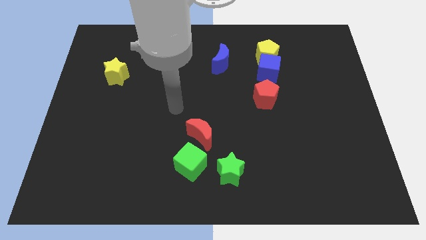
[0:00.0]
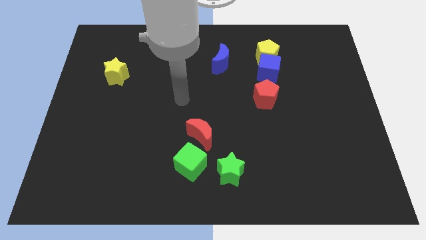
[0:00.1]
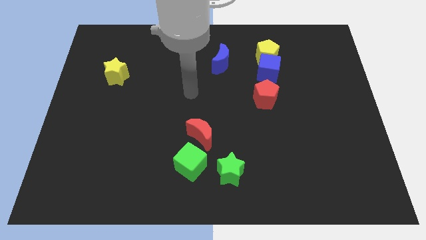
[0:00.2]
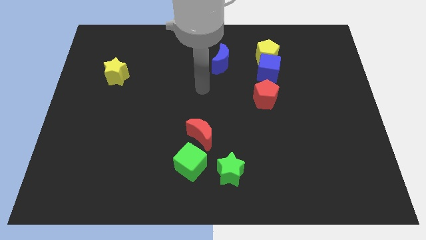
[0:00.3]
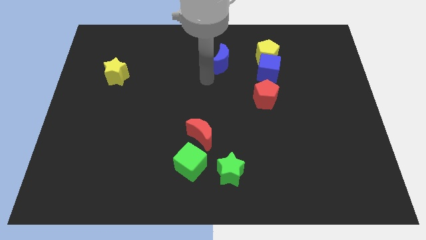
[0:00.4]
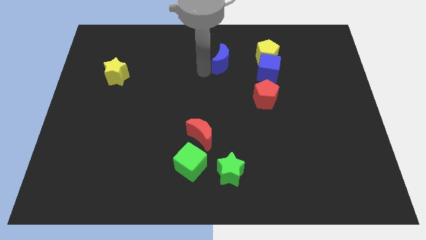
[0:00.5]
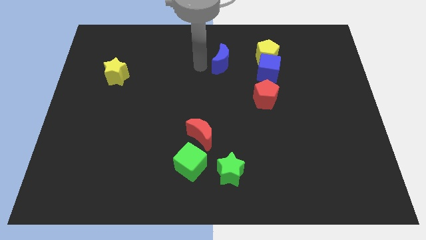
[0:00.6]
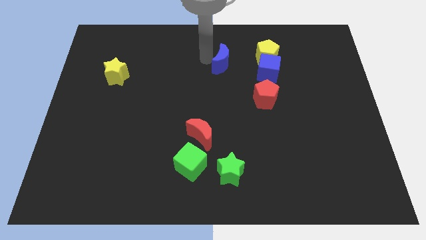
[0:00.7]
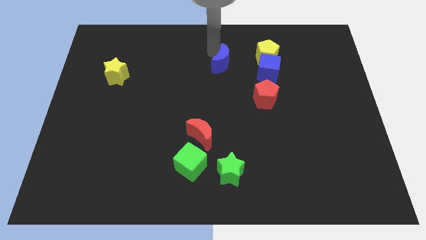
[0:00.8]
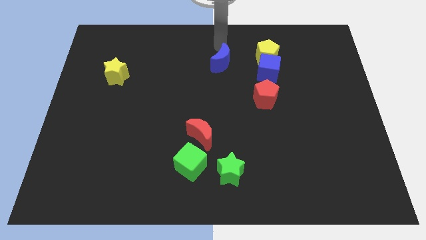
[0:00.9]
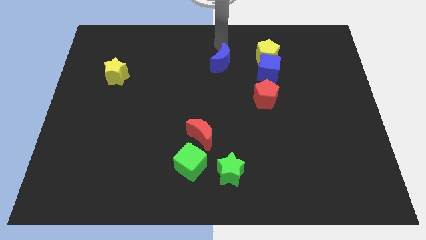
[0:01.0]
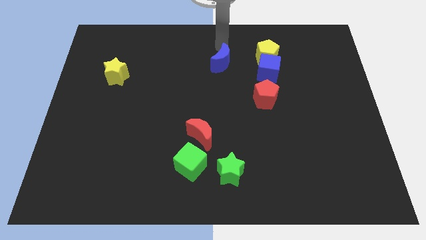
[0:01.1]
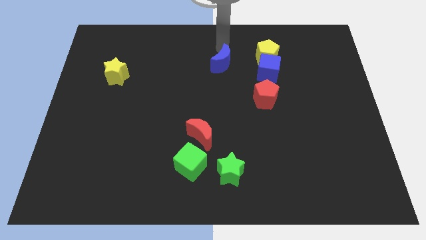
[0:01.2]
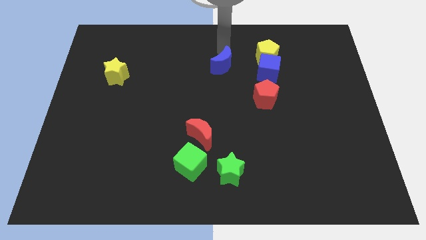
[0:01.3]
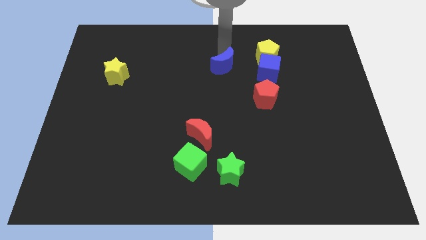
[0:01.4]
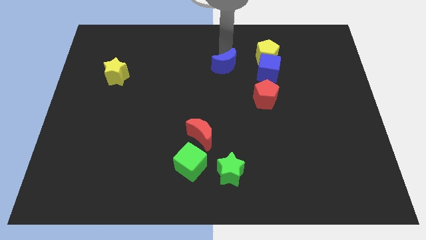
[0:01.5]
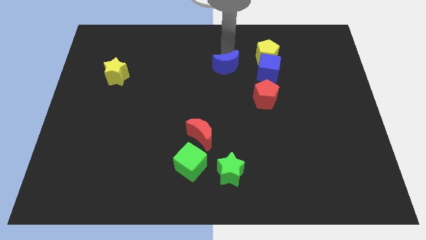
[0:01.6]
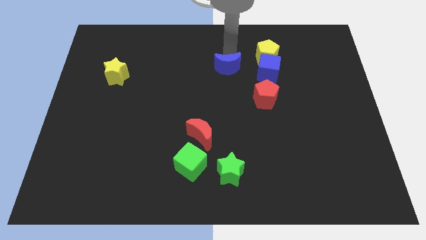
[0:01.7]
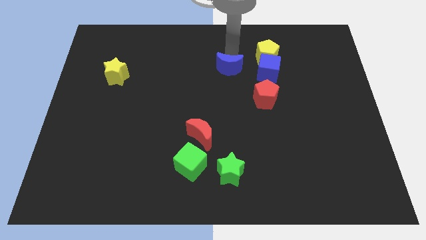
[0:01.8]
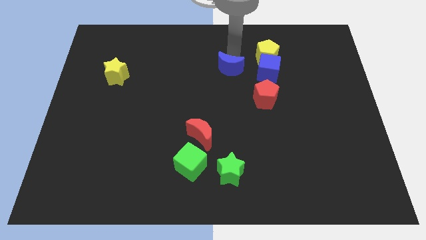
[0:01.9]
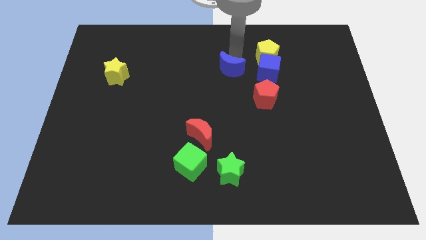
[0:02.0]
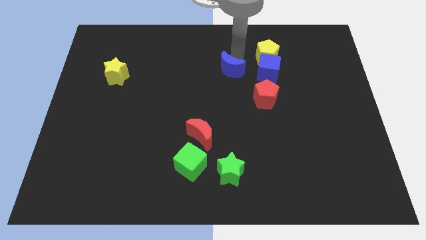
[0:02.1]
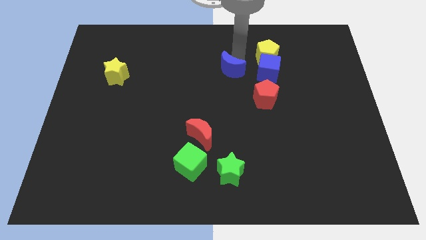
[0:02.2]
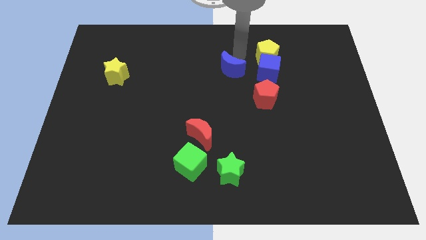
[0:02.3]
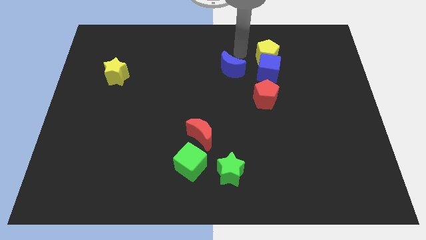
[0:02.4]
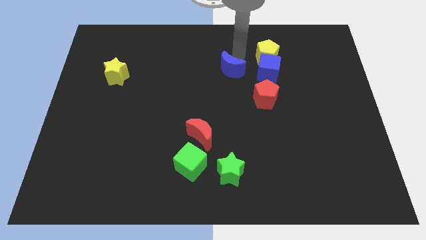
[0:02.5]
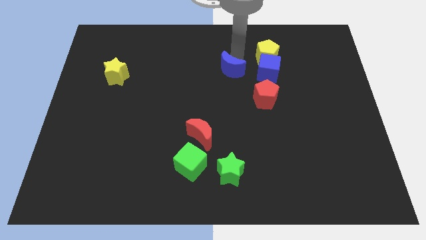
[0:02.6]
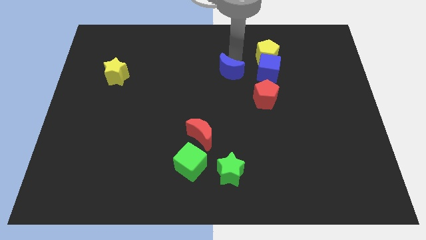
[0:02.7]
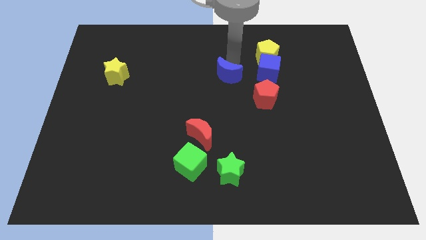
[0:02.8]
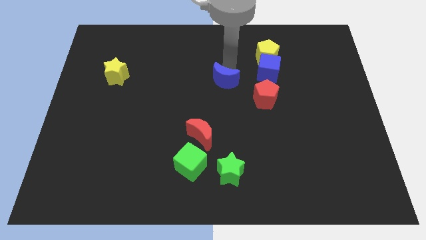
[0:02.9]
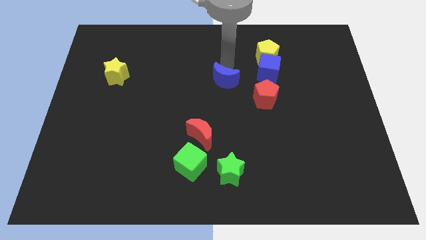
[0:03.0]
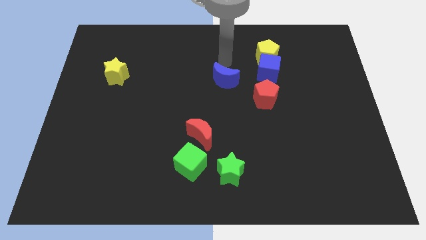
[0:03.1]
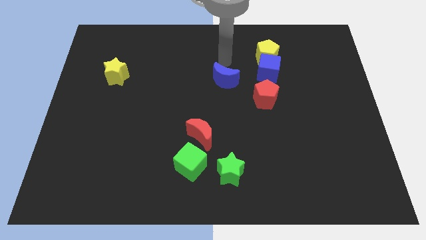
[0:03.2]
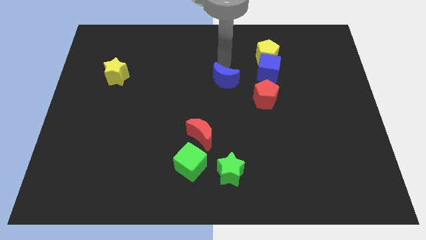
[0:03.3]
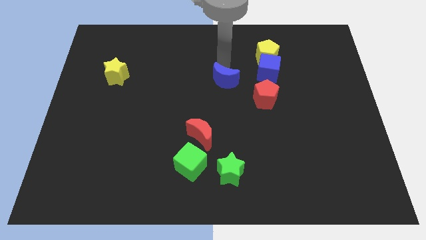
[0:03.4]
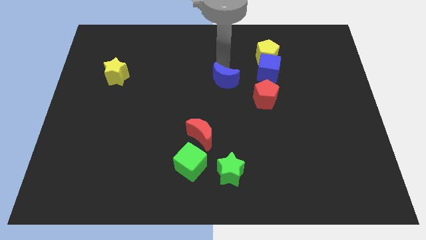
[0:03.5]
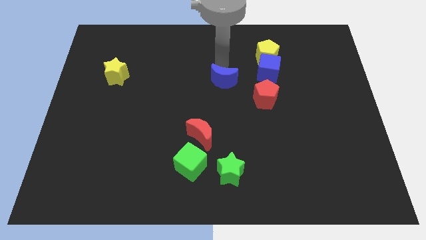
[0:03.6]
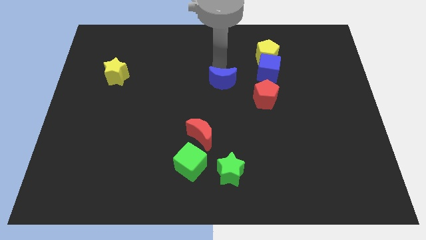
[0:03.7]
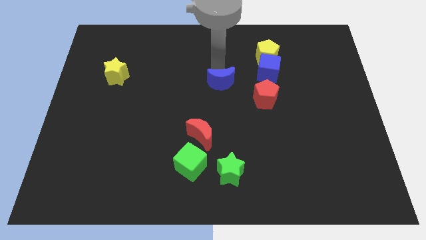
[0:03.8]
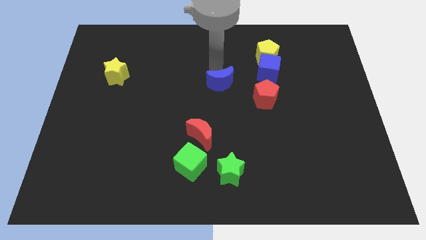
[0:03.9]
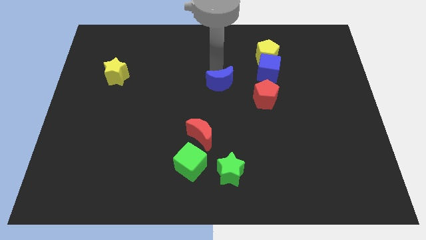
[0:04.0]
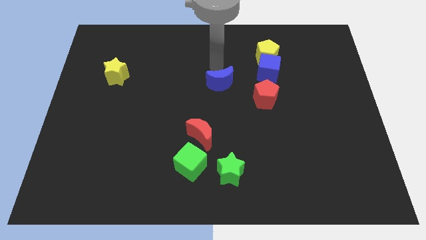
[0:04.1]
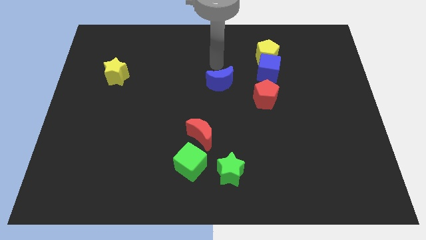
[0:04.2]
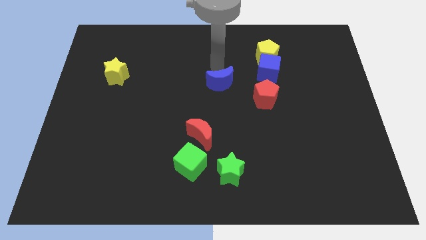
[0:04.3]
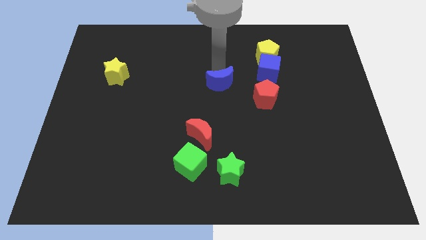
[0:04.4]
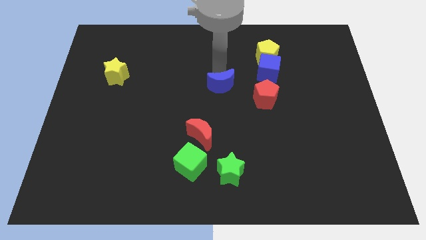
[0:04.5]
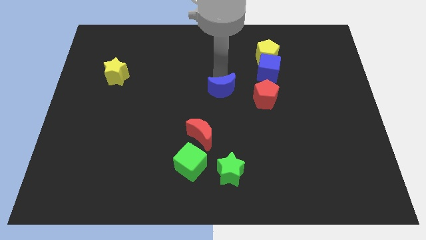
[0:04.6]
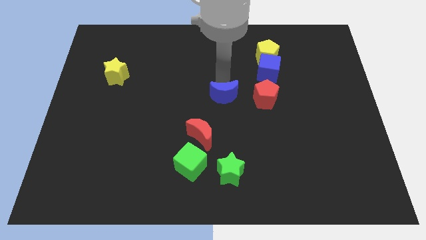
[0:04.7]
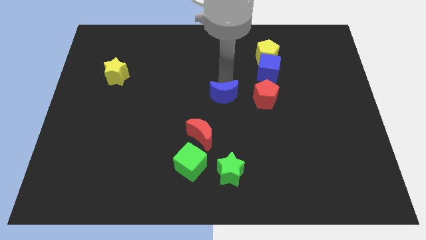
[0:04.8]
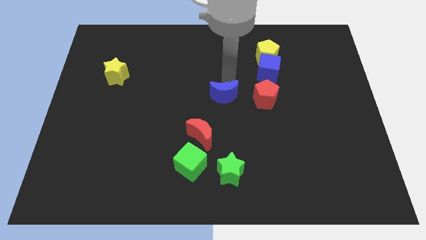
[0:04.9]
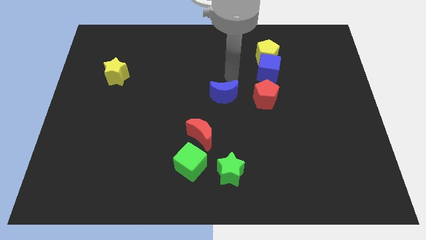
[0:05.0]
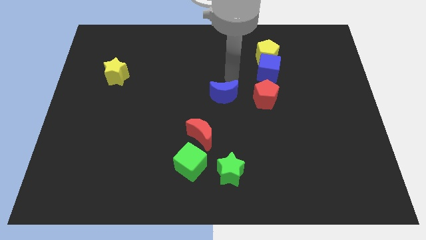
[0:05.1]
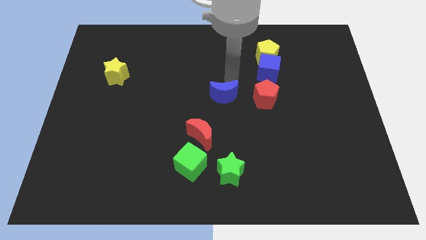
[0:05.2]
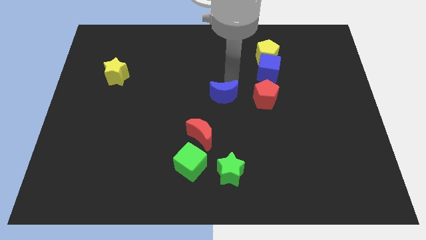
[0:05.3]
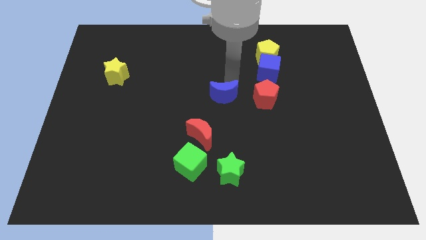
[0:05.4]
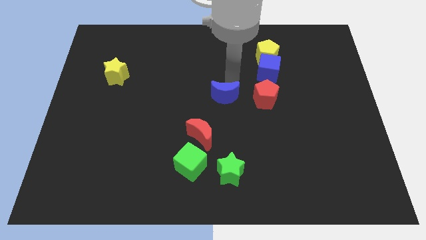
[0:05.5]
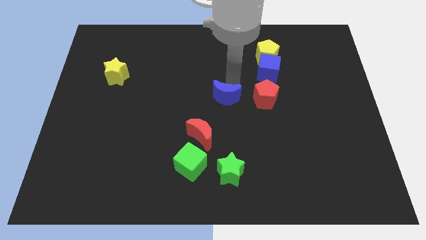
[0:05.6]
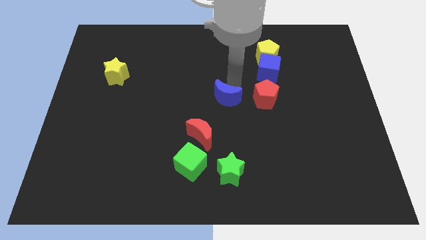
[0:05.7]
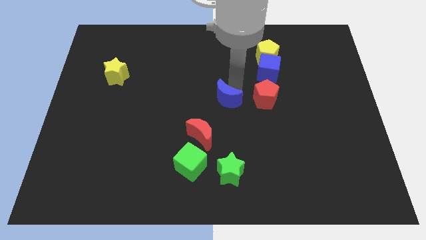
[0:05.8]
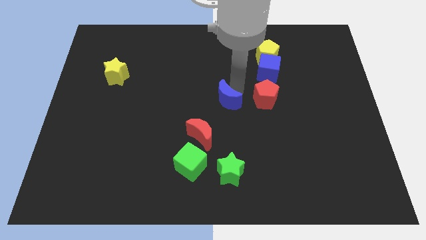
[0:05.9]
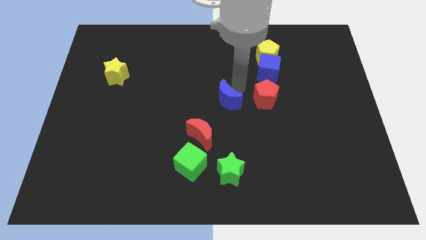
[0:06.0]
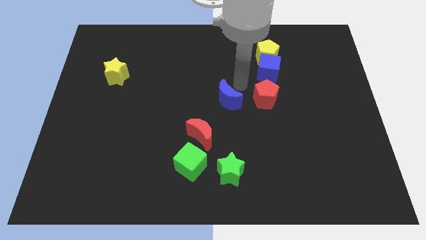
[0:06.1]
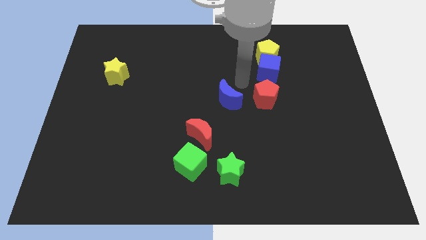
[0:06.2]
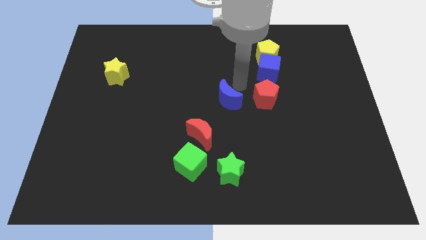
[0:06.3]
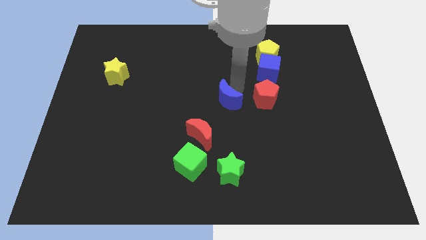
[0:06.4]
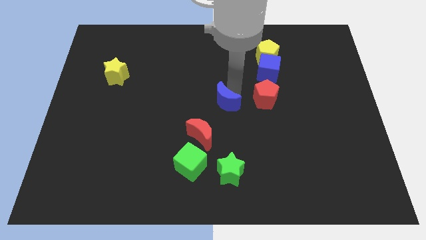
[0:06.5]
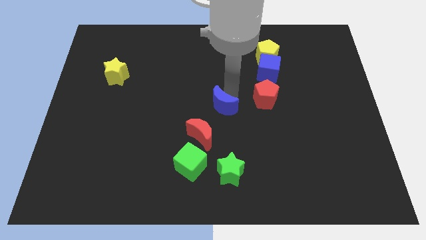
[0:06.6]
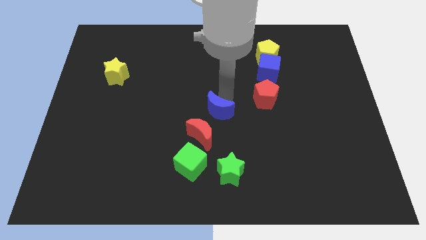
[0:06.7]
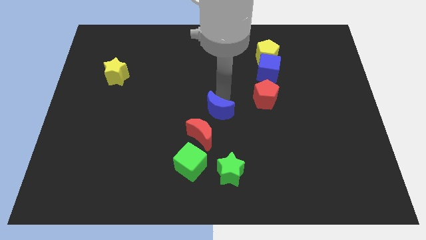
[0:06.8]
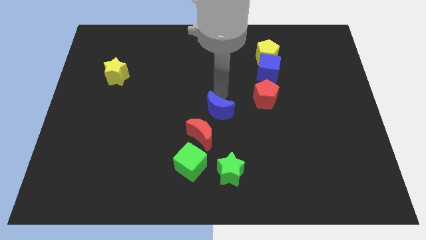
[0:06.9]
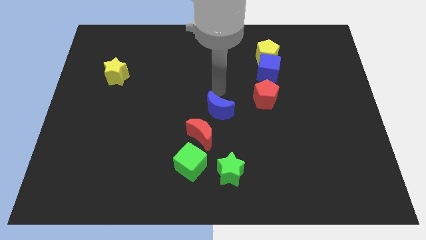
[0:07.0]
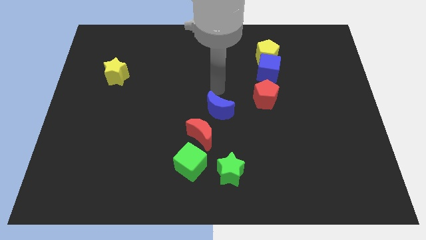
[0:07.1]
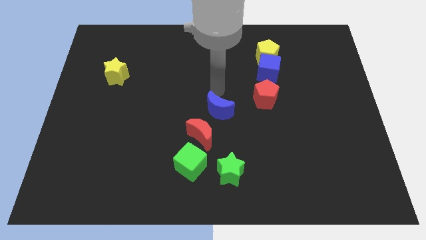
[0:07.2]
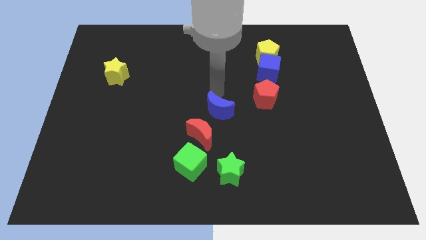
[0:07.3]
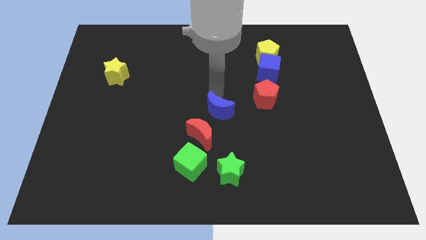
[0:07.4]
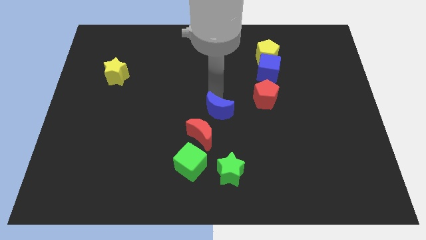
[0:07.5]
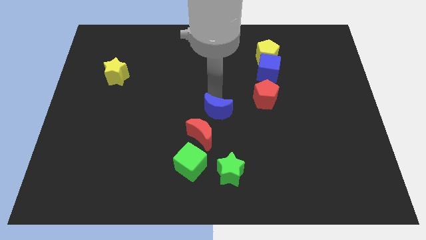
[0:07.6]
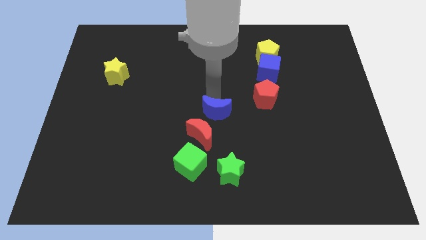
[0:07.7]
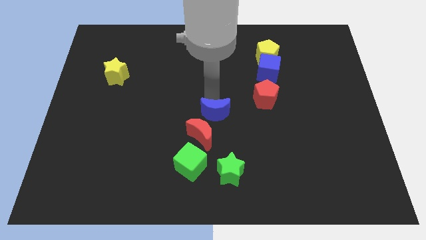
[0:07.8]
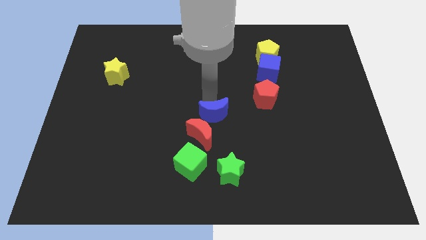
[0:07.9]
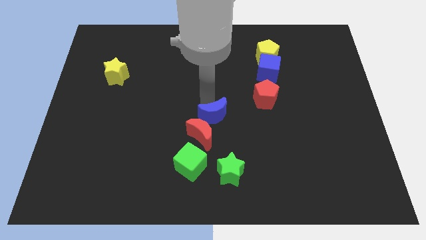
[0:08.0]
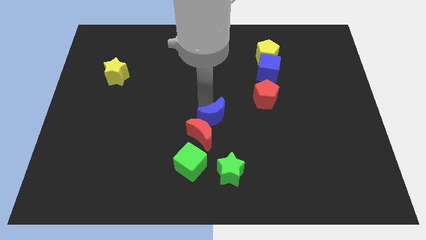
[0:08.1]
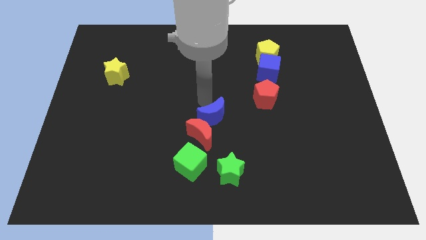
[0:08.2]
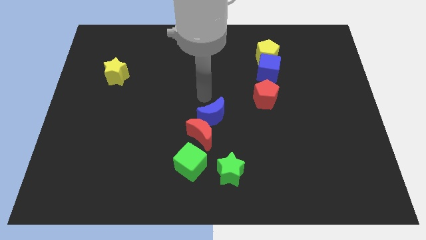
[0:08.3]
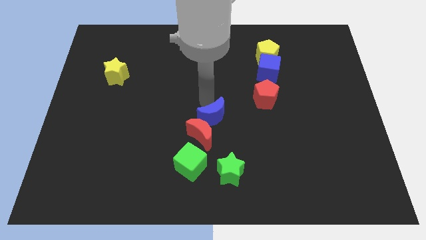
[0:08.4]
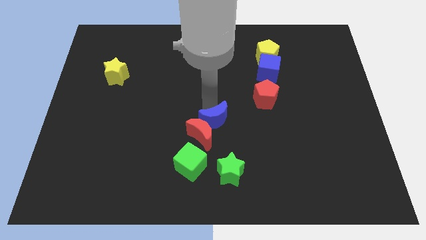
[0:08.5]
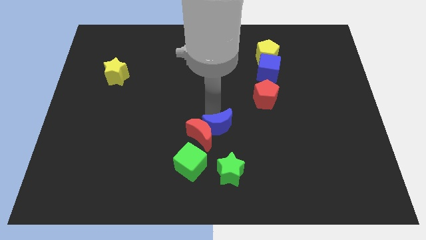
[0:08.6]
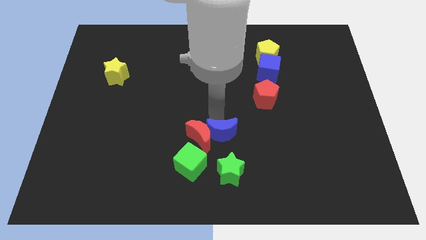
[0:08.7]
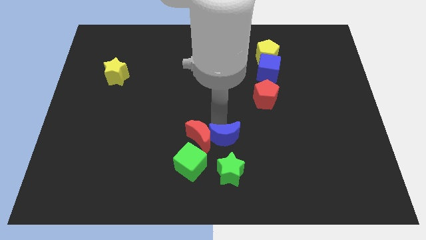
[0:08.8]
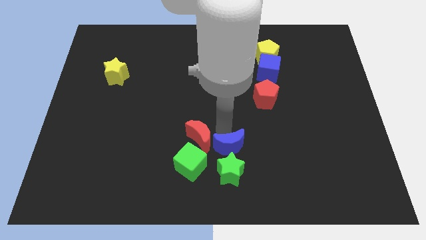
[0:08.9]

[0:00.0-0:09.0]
put the blue moon to the green star
